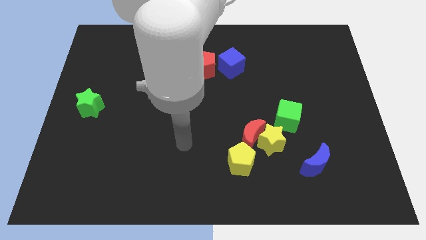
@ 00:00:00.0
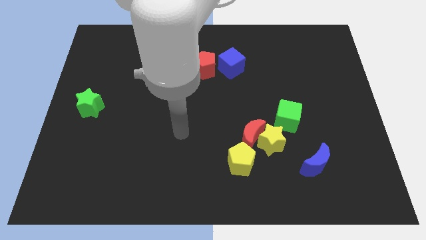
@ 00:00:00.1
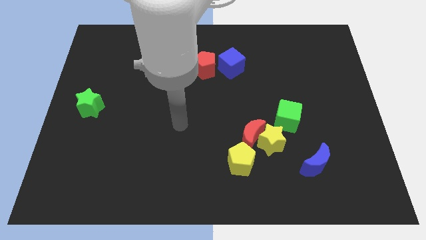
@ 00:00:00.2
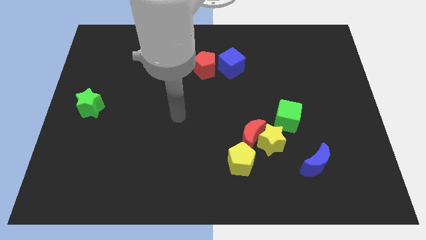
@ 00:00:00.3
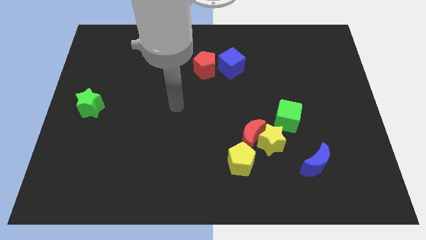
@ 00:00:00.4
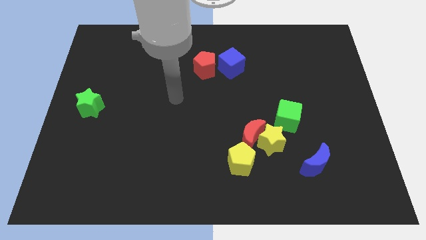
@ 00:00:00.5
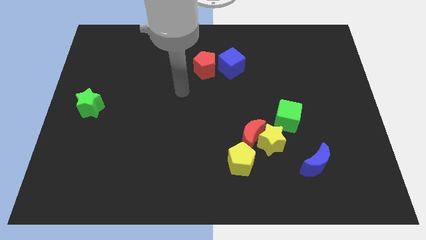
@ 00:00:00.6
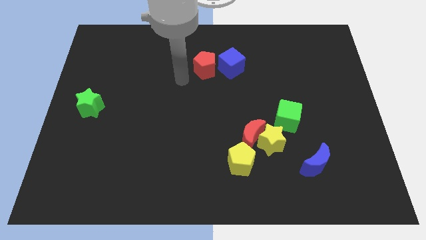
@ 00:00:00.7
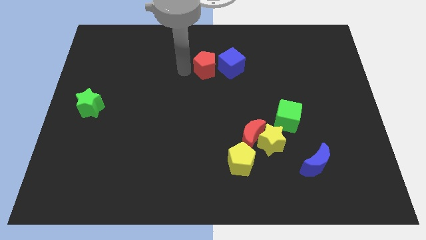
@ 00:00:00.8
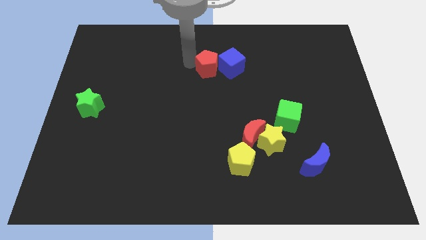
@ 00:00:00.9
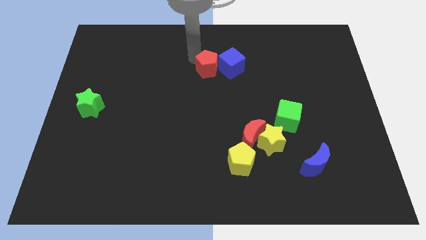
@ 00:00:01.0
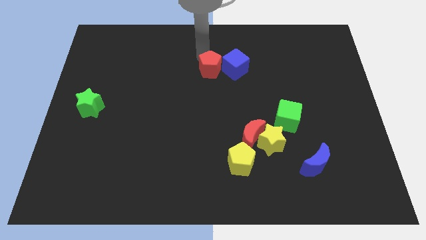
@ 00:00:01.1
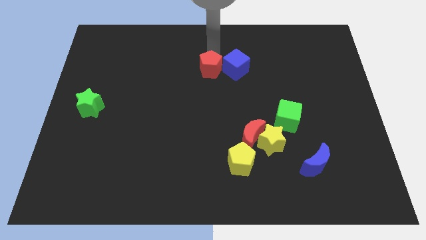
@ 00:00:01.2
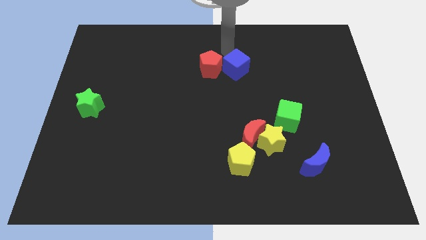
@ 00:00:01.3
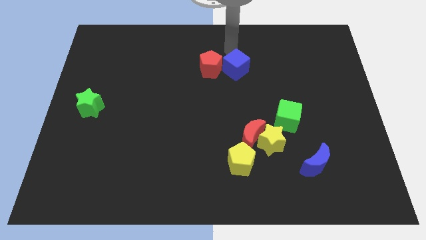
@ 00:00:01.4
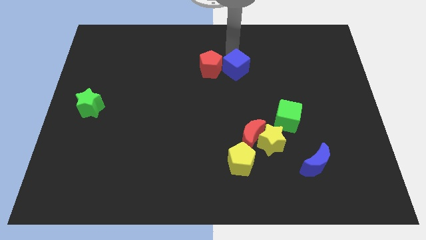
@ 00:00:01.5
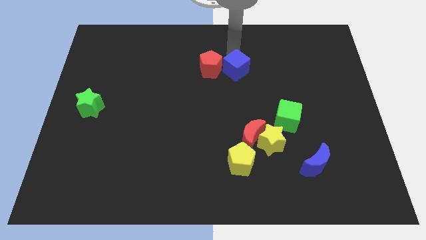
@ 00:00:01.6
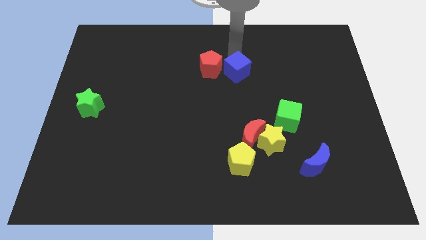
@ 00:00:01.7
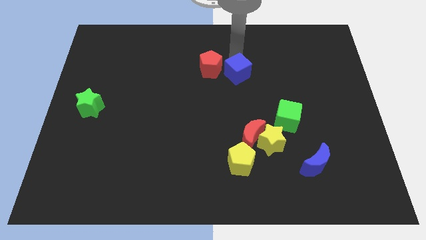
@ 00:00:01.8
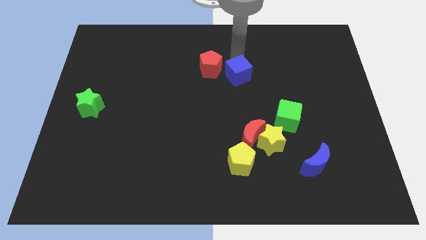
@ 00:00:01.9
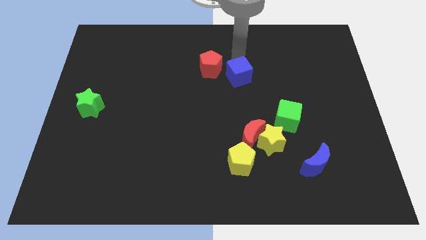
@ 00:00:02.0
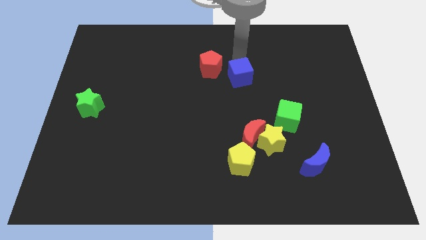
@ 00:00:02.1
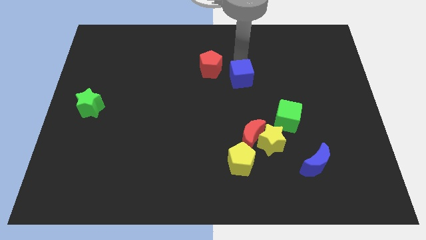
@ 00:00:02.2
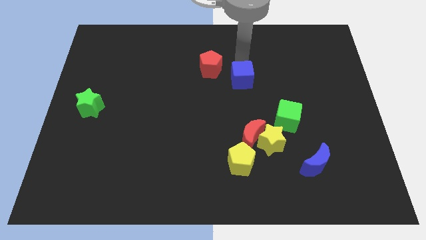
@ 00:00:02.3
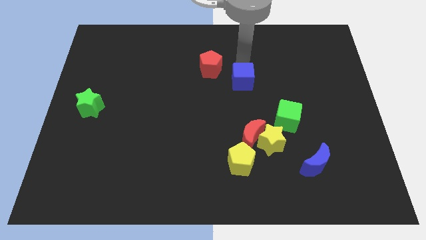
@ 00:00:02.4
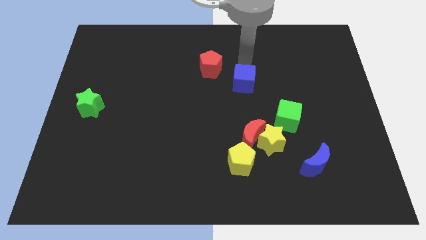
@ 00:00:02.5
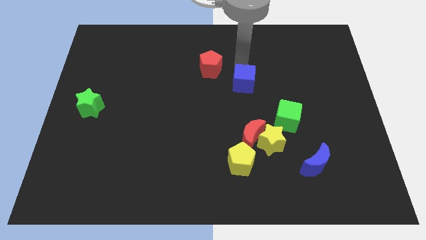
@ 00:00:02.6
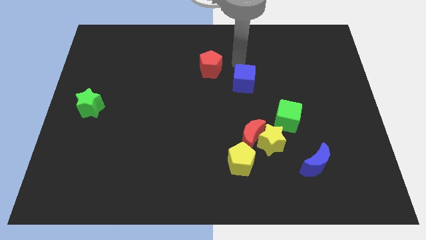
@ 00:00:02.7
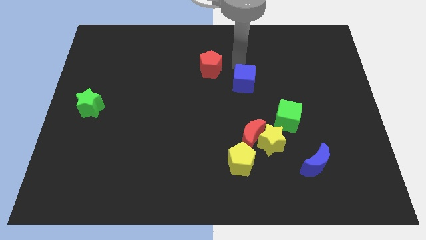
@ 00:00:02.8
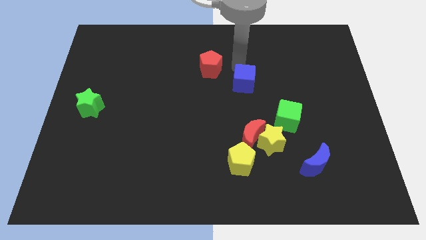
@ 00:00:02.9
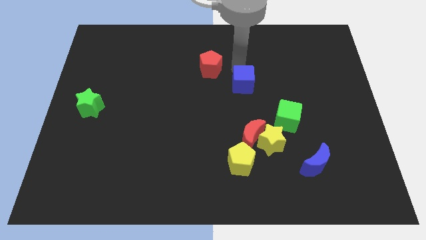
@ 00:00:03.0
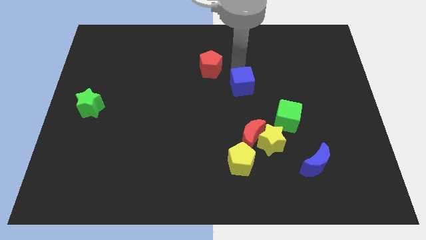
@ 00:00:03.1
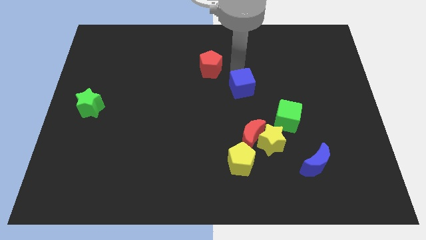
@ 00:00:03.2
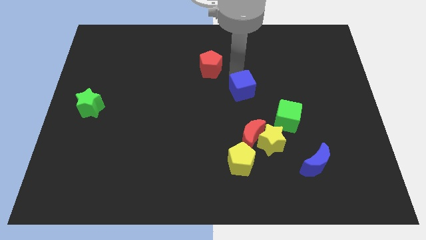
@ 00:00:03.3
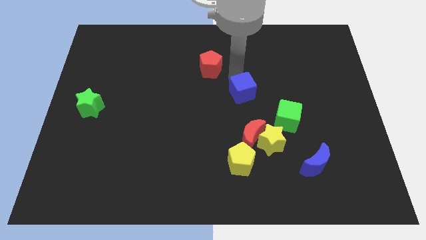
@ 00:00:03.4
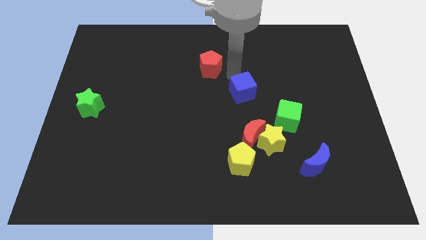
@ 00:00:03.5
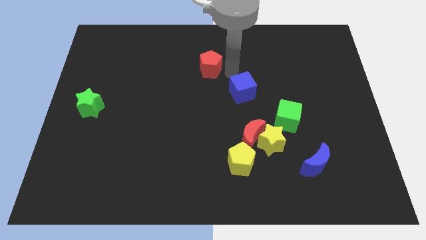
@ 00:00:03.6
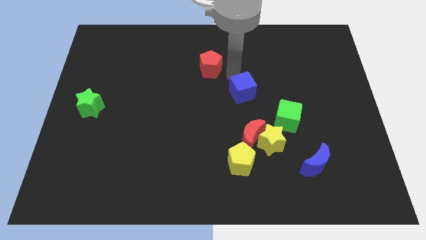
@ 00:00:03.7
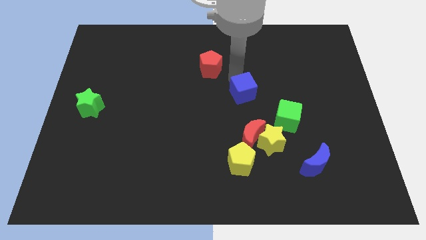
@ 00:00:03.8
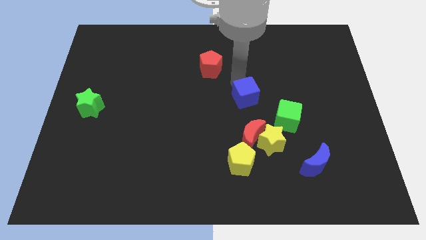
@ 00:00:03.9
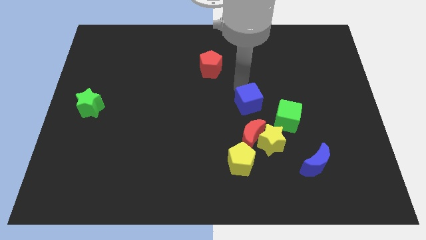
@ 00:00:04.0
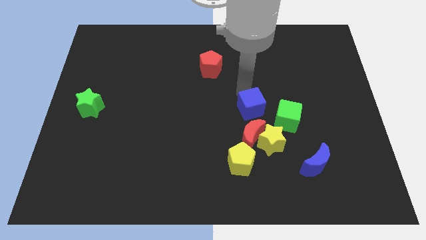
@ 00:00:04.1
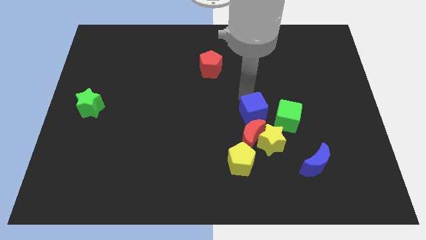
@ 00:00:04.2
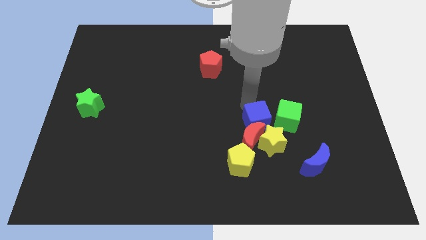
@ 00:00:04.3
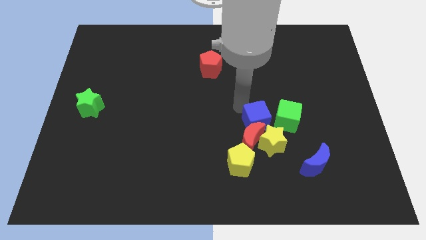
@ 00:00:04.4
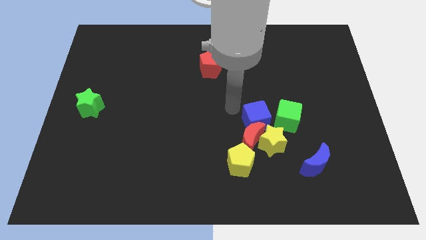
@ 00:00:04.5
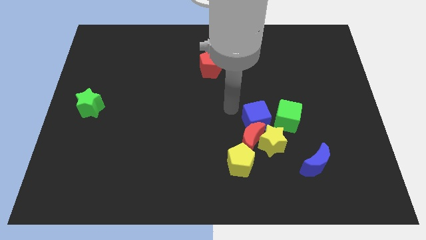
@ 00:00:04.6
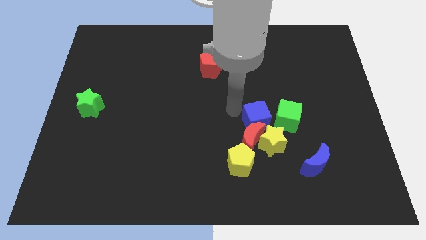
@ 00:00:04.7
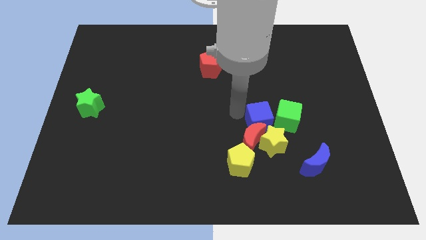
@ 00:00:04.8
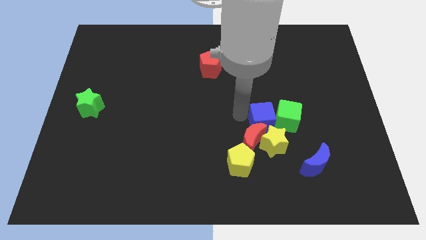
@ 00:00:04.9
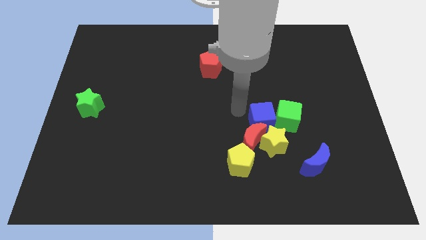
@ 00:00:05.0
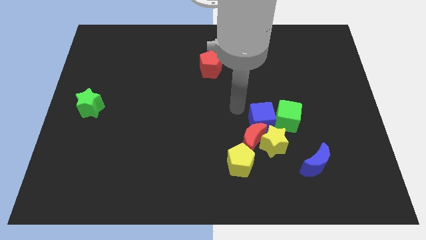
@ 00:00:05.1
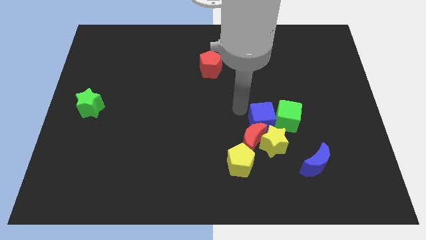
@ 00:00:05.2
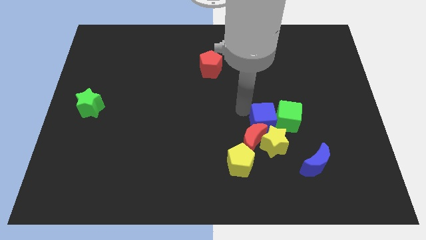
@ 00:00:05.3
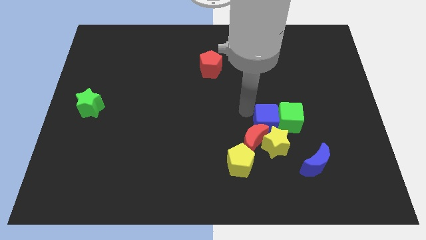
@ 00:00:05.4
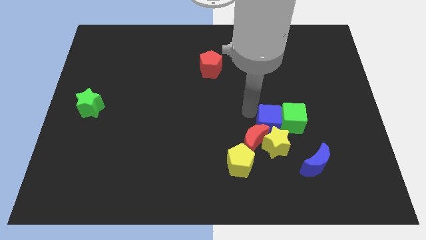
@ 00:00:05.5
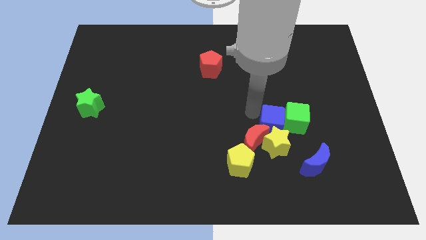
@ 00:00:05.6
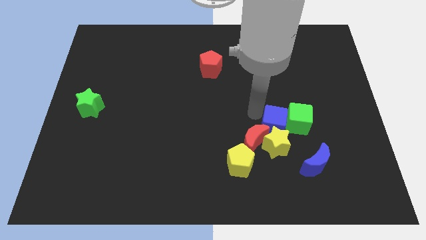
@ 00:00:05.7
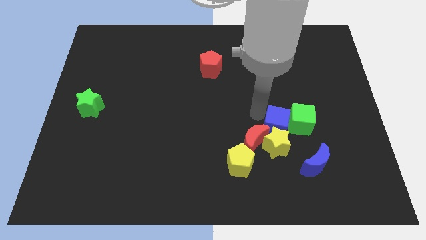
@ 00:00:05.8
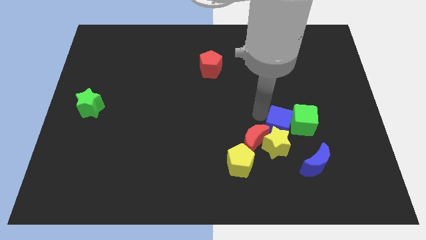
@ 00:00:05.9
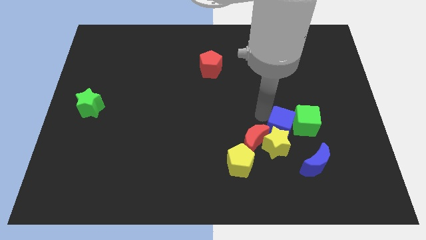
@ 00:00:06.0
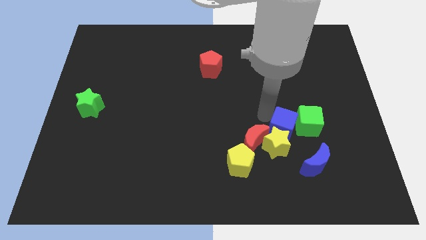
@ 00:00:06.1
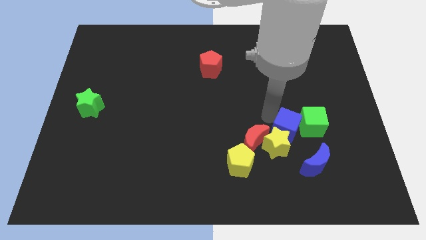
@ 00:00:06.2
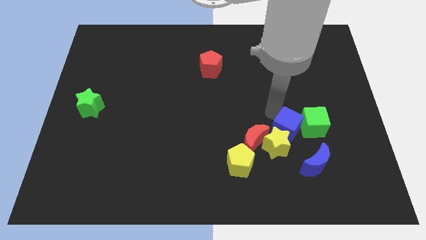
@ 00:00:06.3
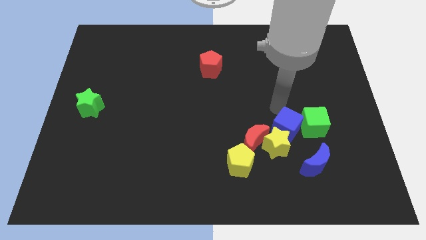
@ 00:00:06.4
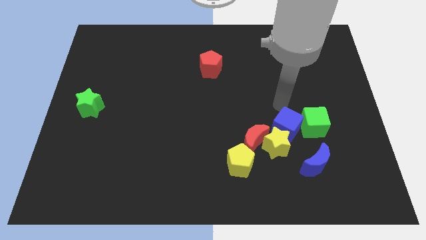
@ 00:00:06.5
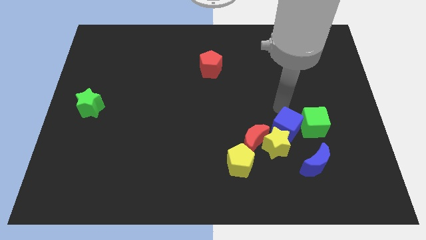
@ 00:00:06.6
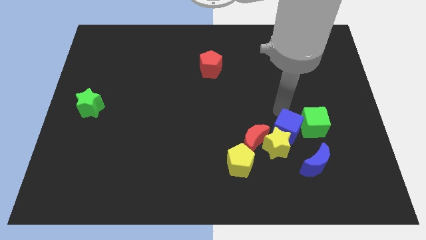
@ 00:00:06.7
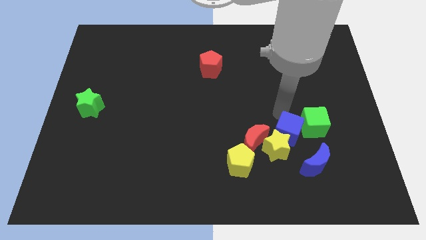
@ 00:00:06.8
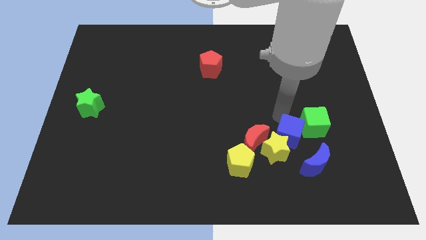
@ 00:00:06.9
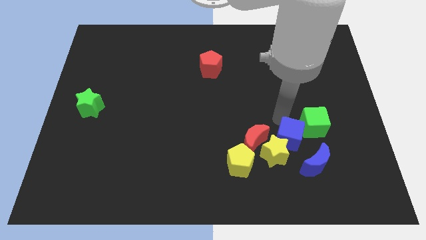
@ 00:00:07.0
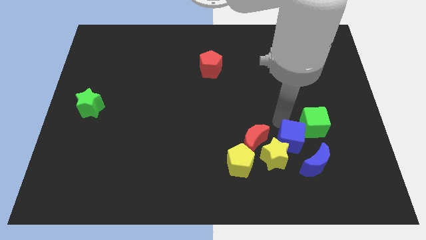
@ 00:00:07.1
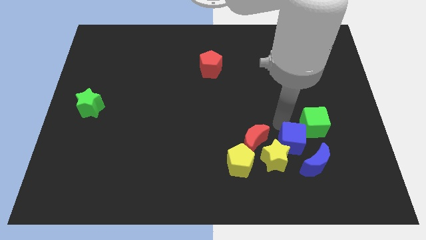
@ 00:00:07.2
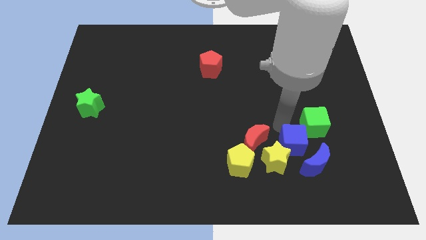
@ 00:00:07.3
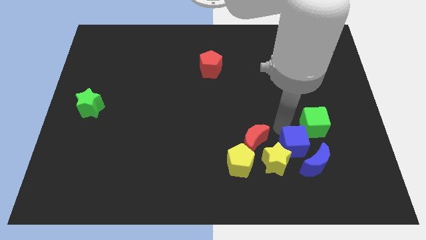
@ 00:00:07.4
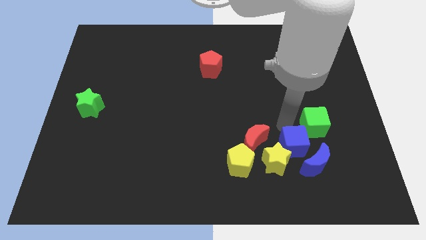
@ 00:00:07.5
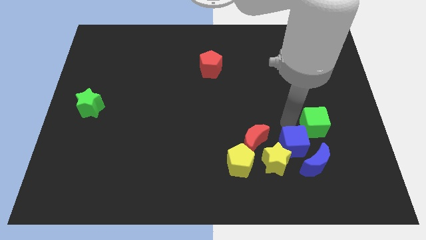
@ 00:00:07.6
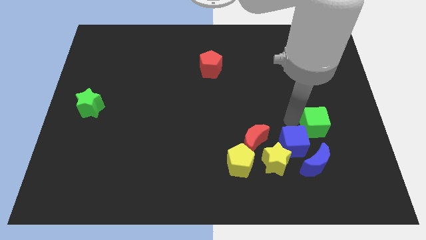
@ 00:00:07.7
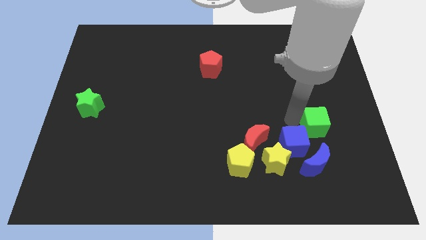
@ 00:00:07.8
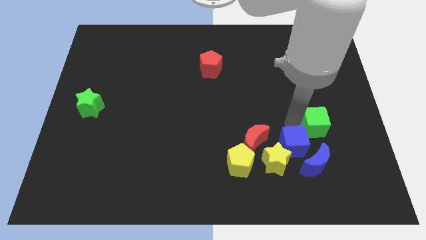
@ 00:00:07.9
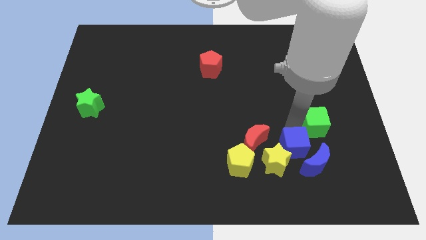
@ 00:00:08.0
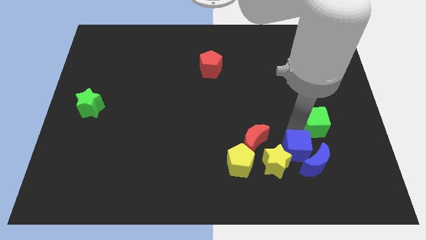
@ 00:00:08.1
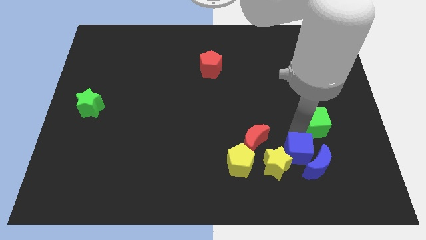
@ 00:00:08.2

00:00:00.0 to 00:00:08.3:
put the blue cube to the bottom right of the red moon
